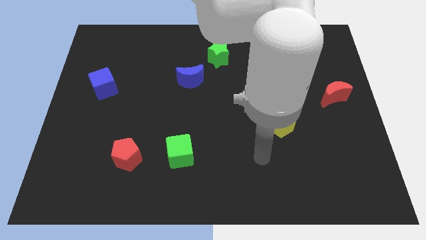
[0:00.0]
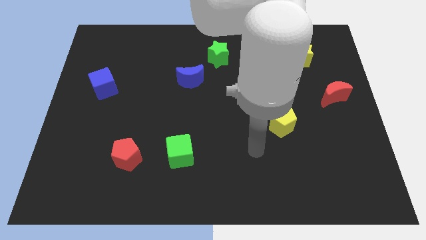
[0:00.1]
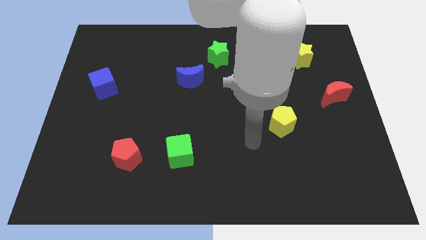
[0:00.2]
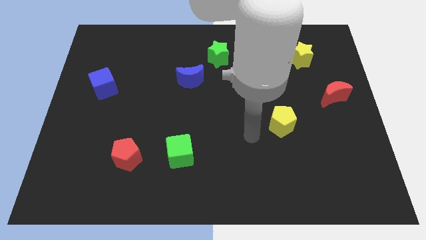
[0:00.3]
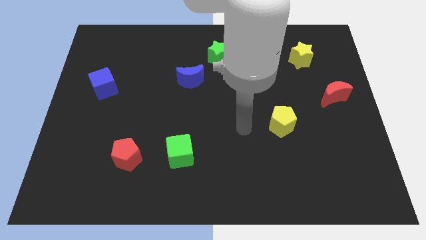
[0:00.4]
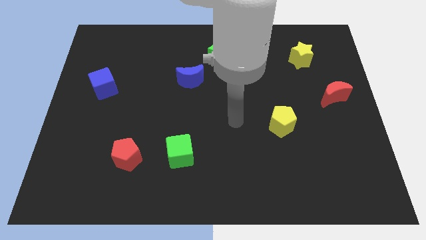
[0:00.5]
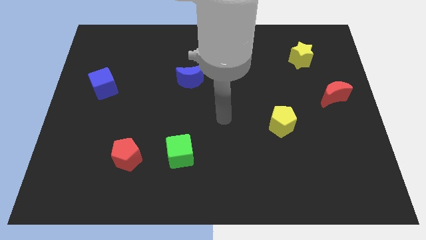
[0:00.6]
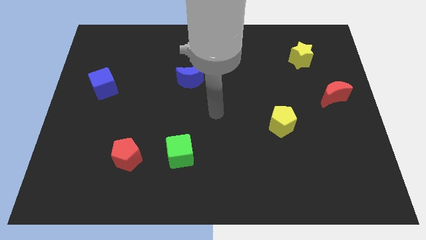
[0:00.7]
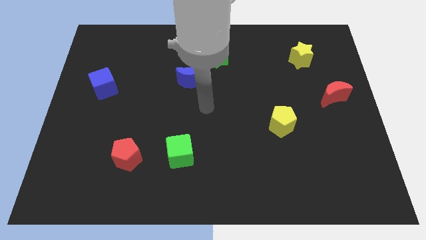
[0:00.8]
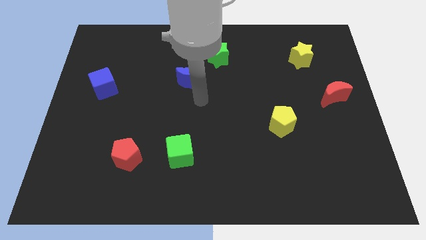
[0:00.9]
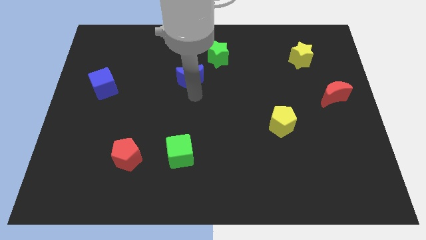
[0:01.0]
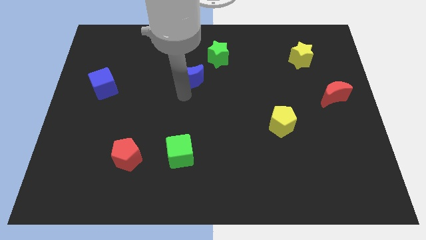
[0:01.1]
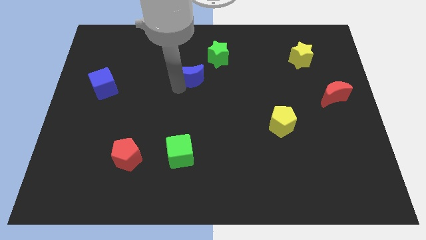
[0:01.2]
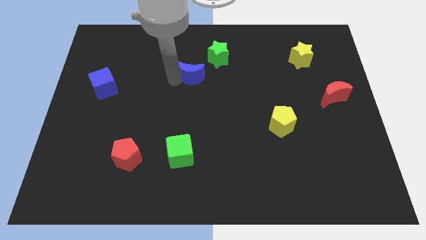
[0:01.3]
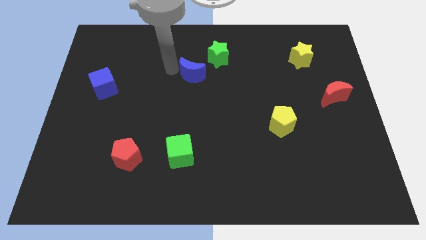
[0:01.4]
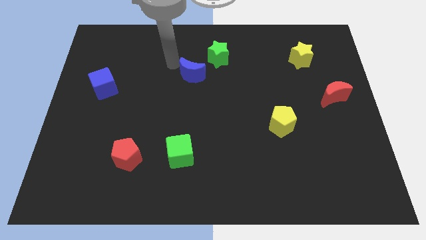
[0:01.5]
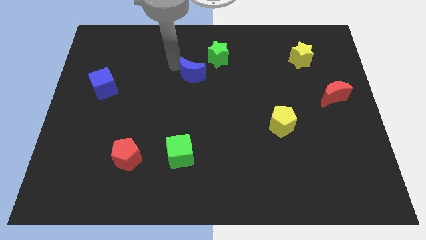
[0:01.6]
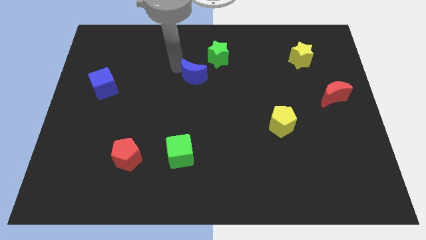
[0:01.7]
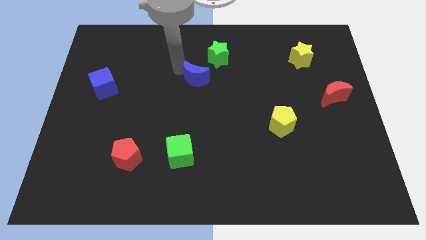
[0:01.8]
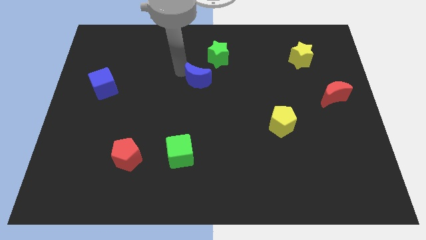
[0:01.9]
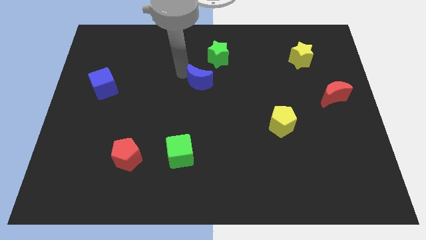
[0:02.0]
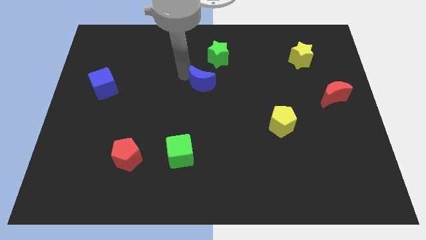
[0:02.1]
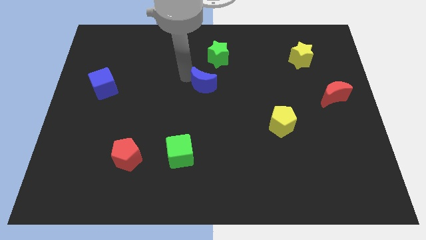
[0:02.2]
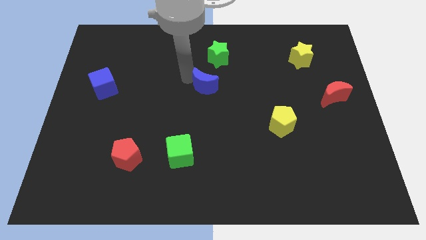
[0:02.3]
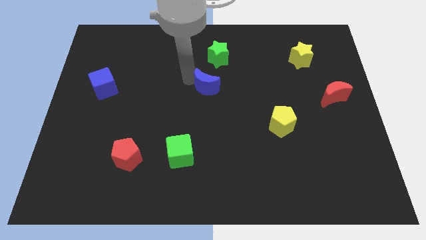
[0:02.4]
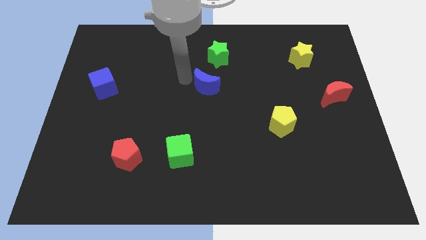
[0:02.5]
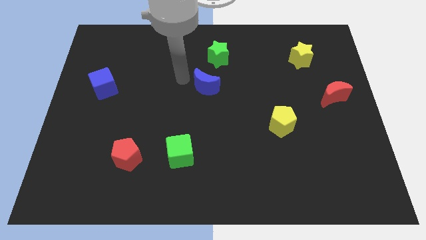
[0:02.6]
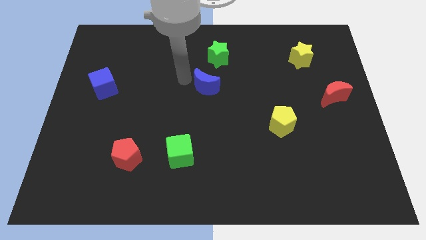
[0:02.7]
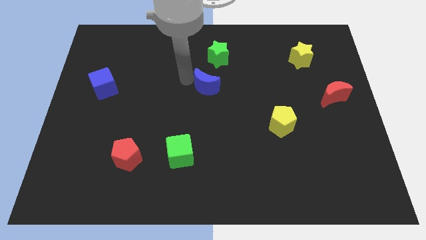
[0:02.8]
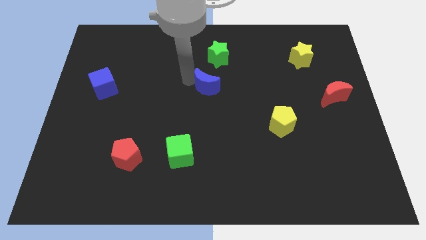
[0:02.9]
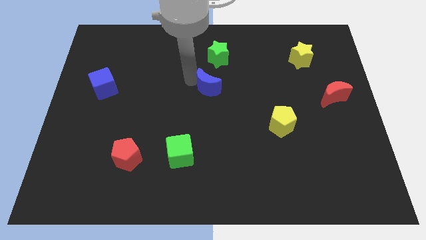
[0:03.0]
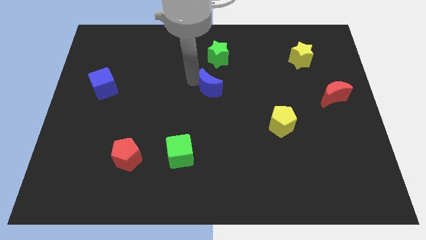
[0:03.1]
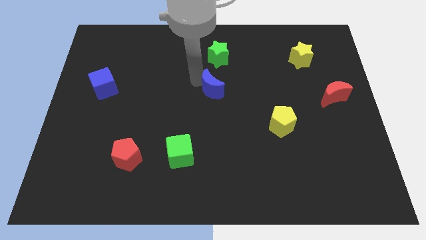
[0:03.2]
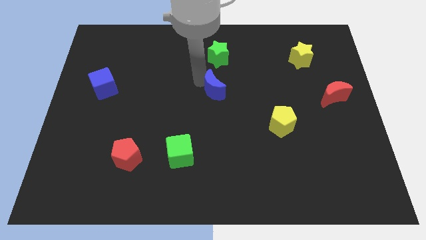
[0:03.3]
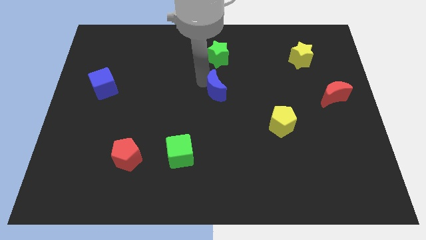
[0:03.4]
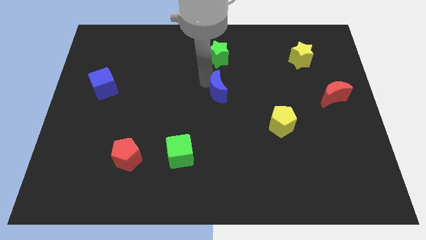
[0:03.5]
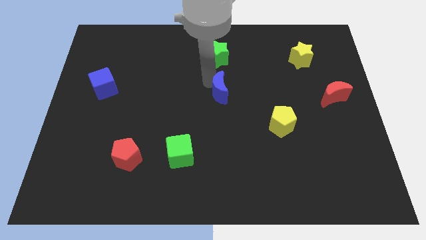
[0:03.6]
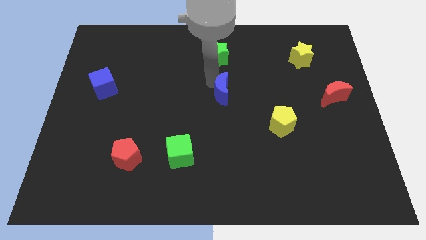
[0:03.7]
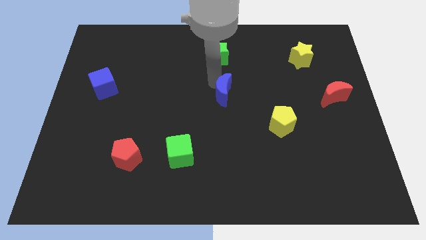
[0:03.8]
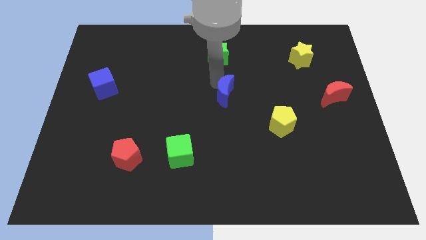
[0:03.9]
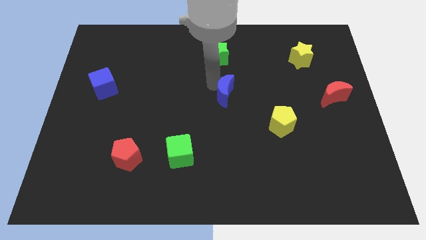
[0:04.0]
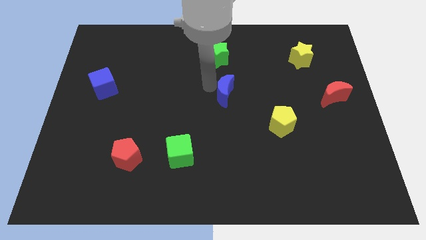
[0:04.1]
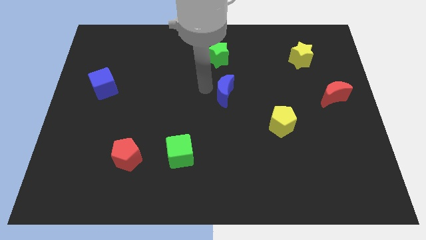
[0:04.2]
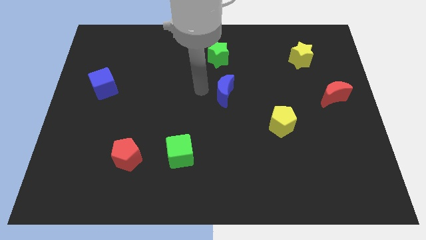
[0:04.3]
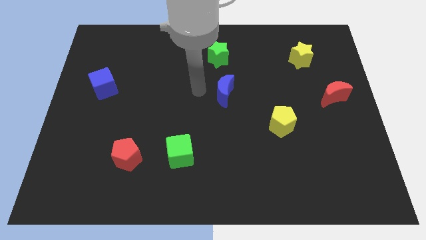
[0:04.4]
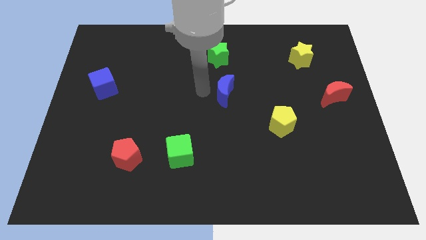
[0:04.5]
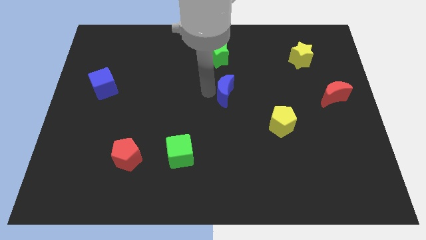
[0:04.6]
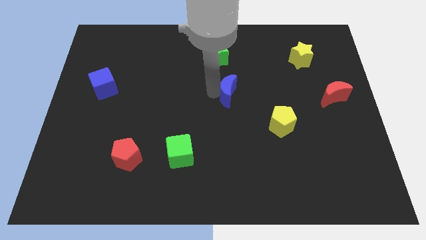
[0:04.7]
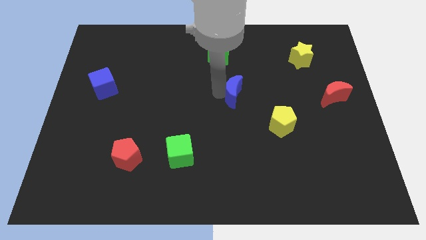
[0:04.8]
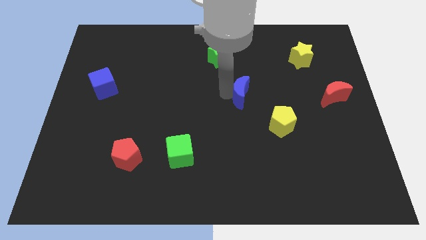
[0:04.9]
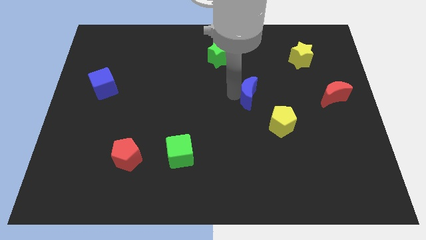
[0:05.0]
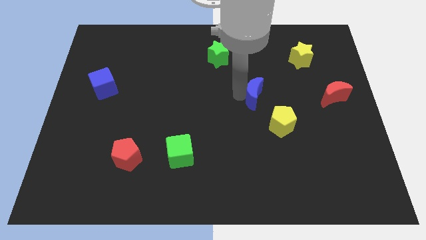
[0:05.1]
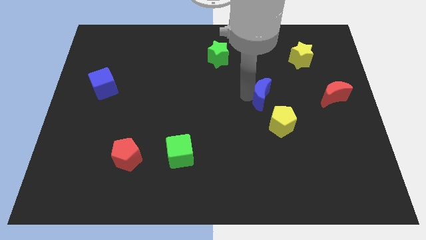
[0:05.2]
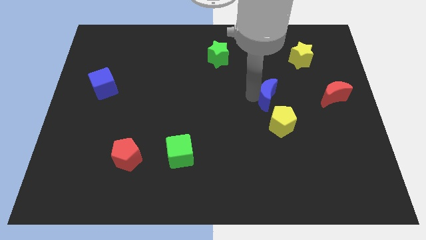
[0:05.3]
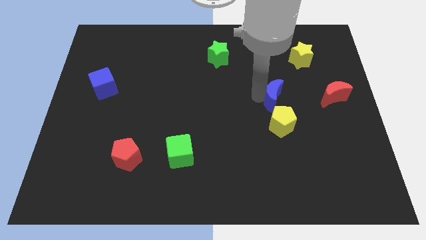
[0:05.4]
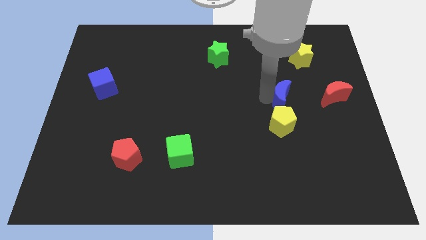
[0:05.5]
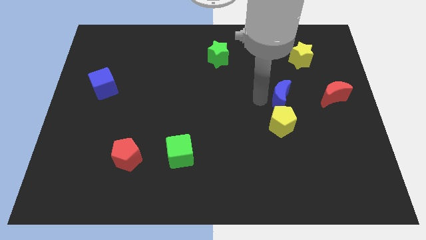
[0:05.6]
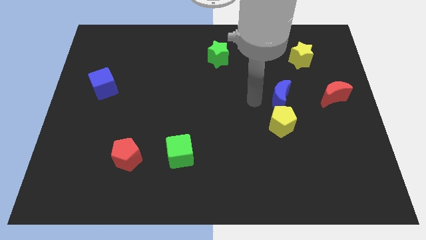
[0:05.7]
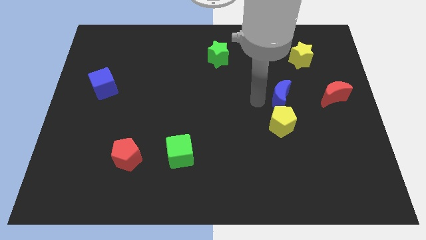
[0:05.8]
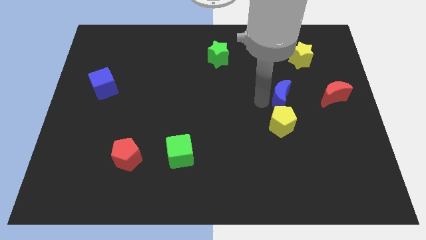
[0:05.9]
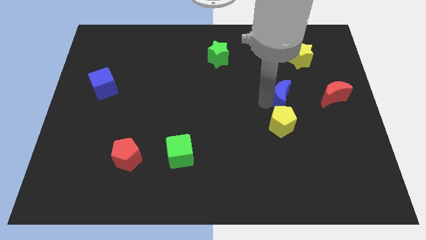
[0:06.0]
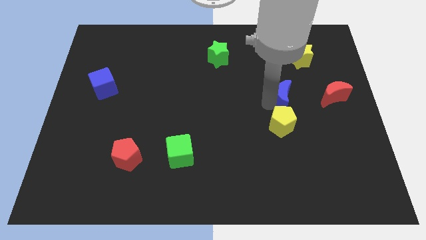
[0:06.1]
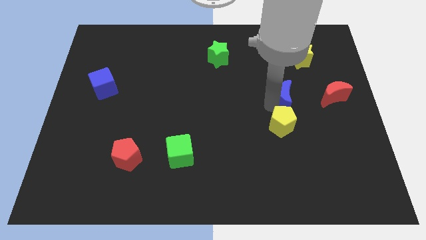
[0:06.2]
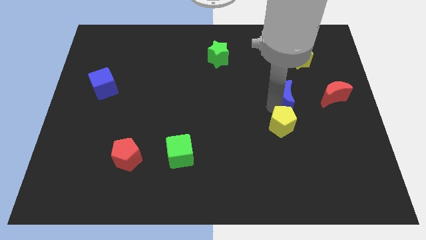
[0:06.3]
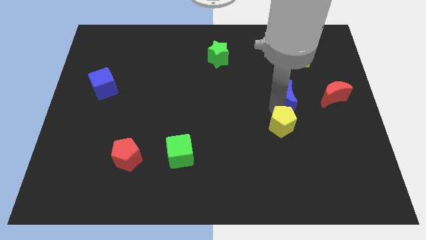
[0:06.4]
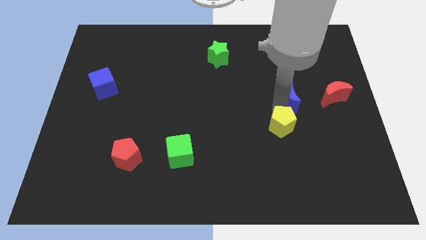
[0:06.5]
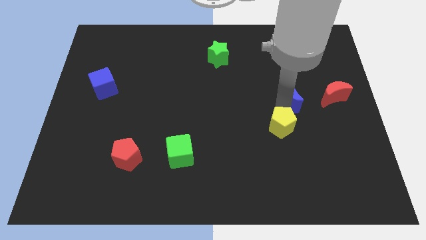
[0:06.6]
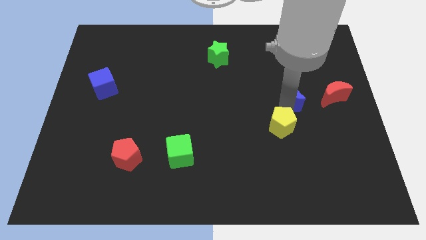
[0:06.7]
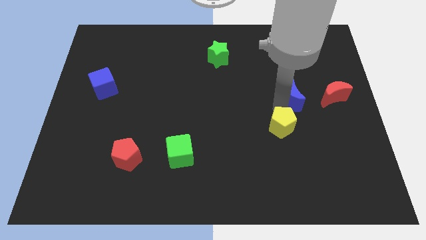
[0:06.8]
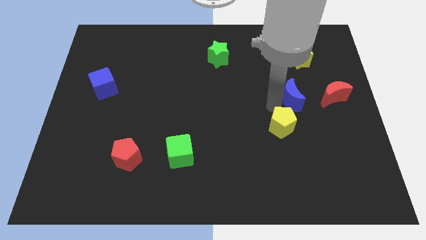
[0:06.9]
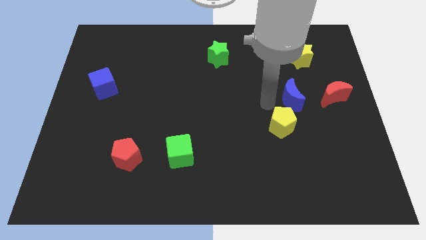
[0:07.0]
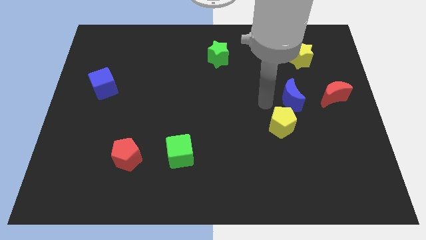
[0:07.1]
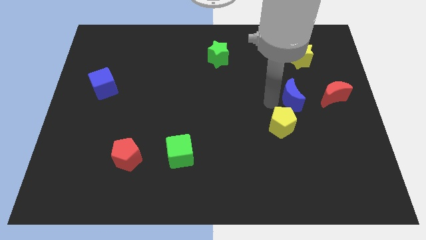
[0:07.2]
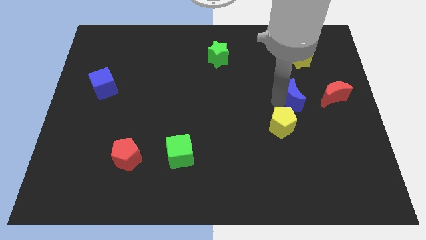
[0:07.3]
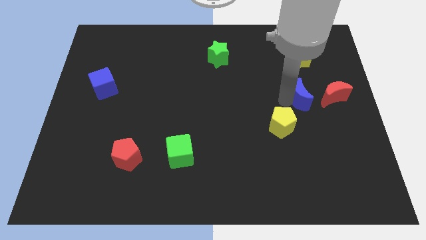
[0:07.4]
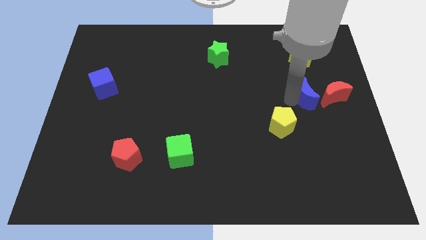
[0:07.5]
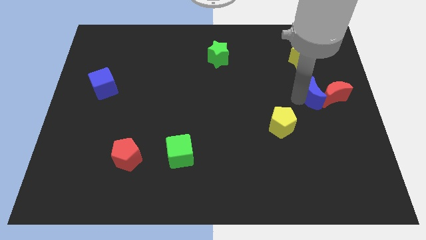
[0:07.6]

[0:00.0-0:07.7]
push the blue moon close to the red moon
